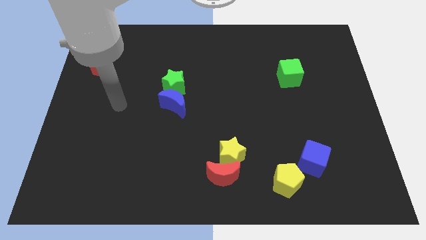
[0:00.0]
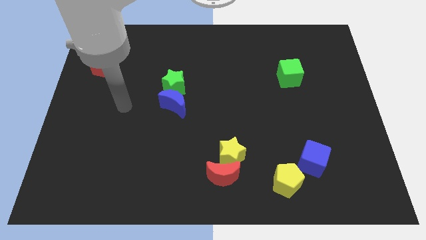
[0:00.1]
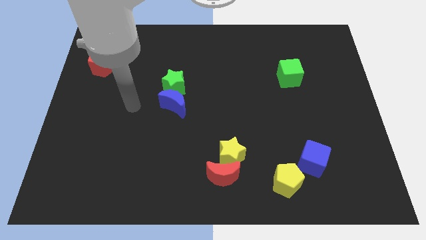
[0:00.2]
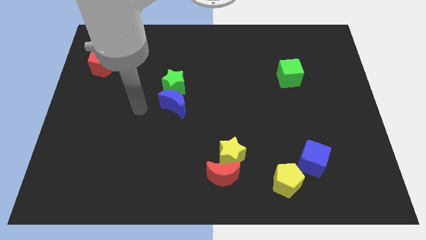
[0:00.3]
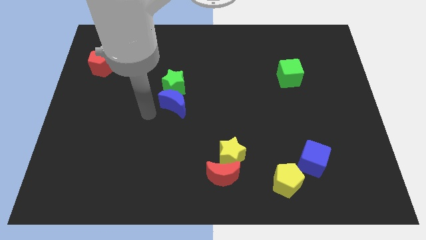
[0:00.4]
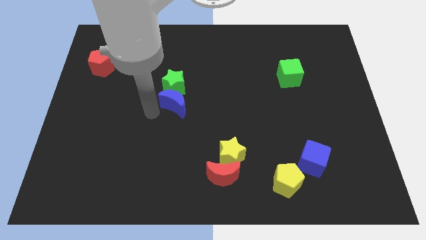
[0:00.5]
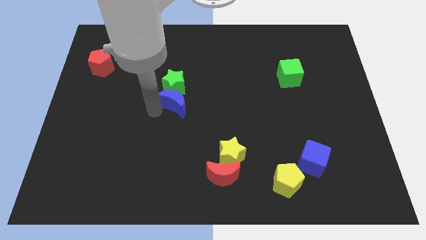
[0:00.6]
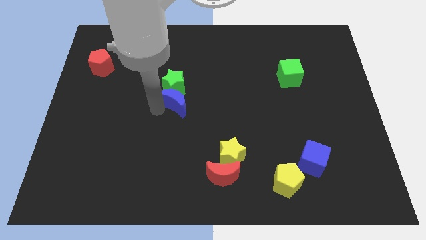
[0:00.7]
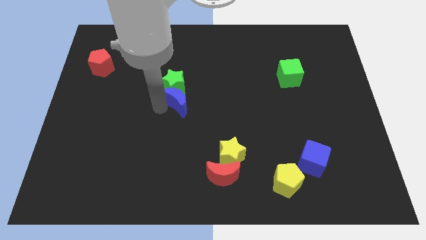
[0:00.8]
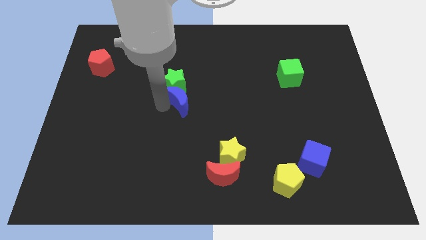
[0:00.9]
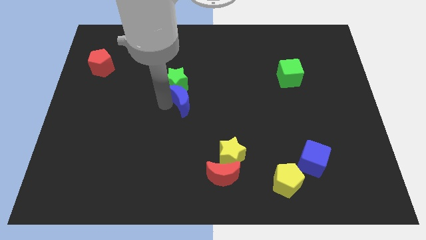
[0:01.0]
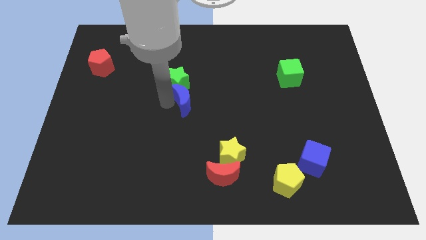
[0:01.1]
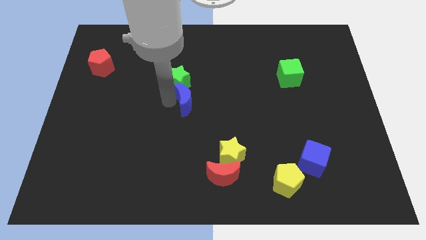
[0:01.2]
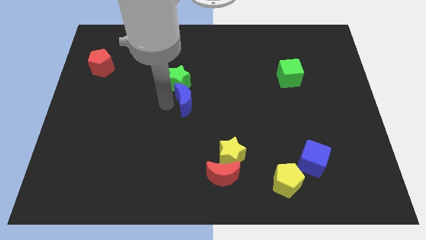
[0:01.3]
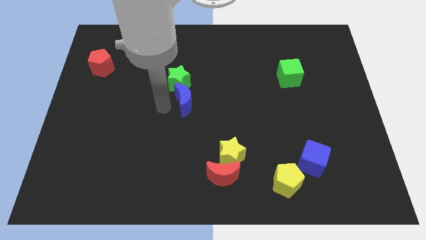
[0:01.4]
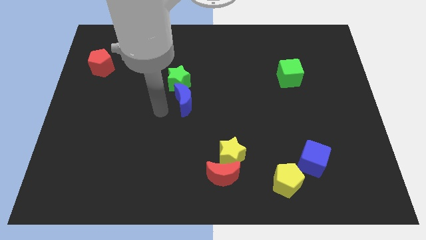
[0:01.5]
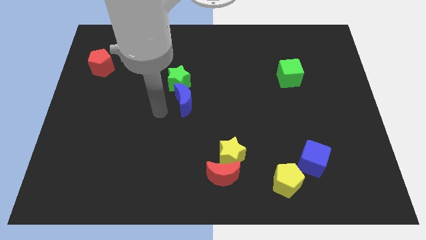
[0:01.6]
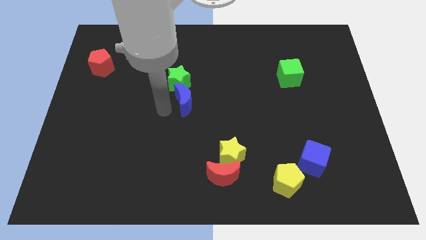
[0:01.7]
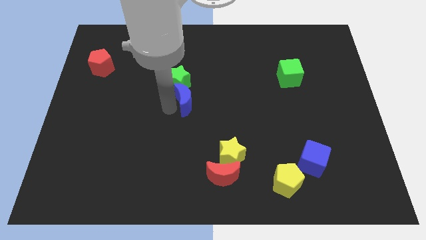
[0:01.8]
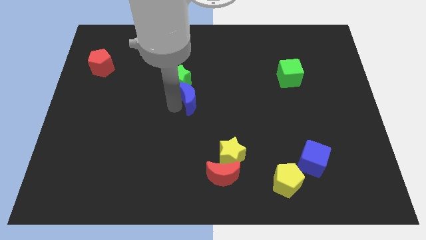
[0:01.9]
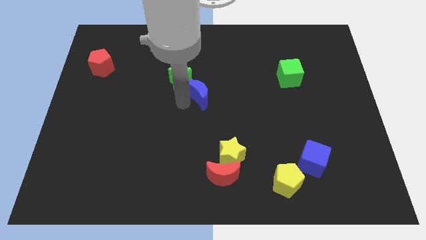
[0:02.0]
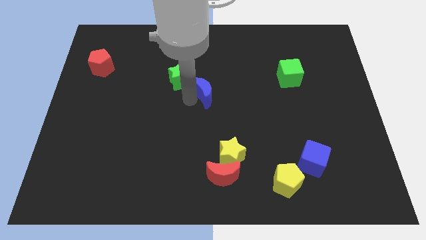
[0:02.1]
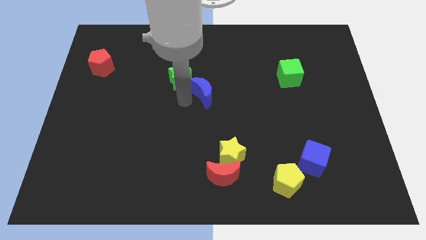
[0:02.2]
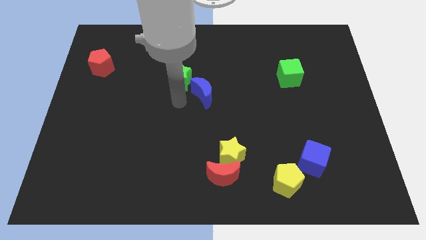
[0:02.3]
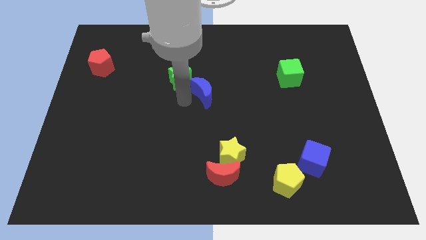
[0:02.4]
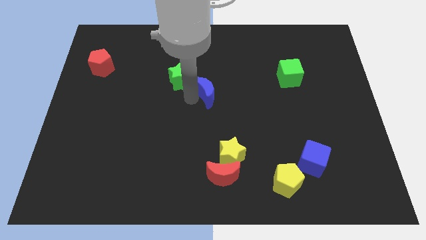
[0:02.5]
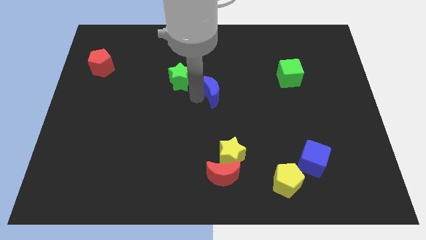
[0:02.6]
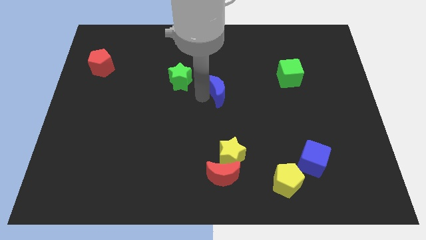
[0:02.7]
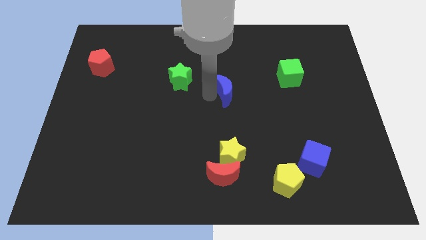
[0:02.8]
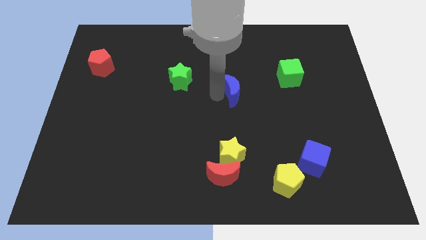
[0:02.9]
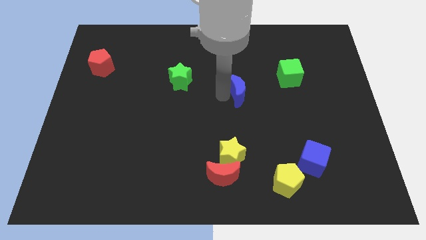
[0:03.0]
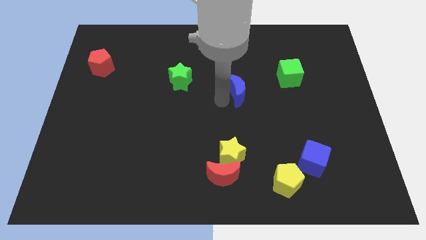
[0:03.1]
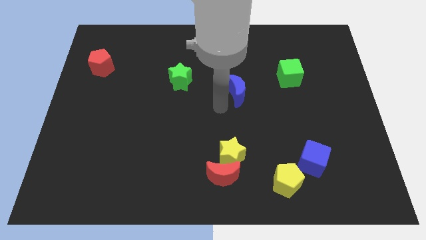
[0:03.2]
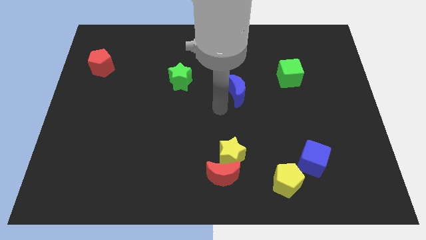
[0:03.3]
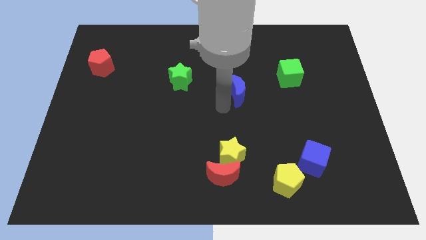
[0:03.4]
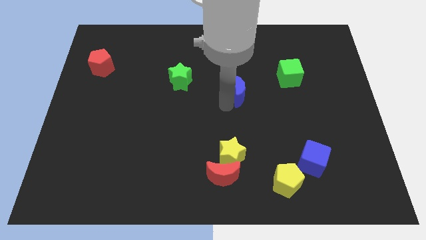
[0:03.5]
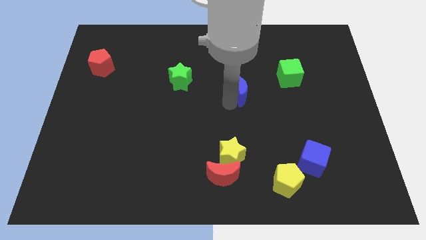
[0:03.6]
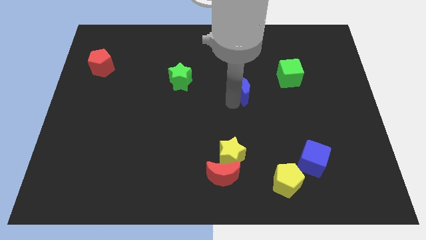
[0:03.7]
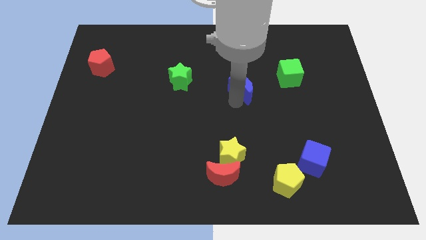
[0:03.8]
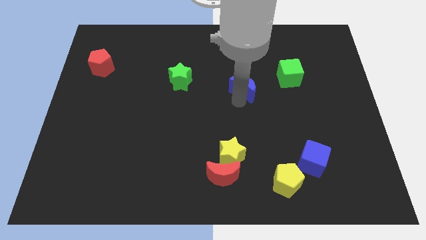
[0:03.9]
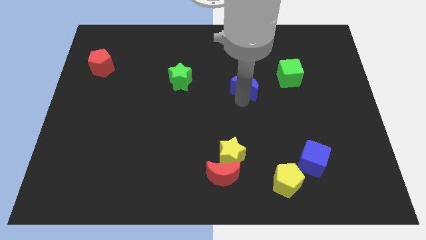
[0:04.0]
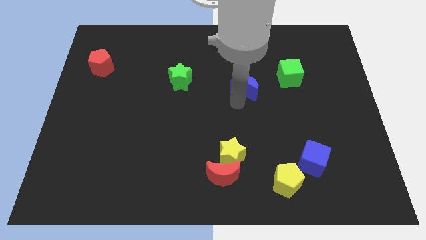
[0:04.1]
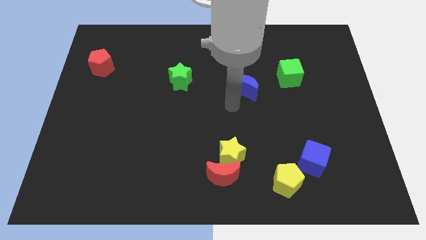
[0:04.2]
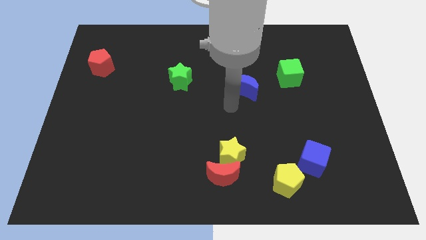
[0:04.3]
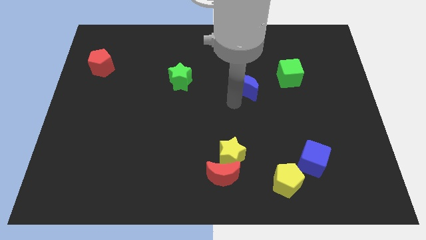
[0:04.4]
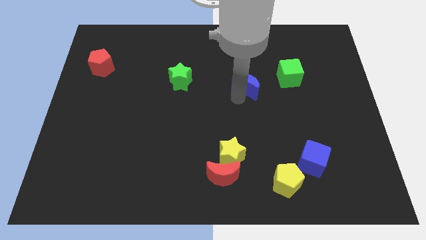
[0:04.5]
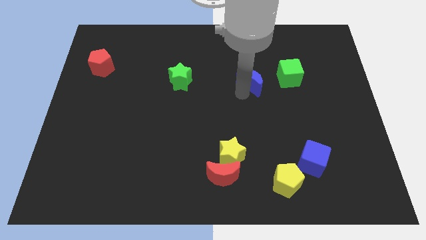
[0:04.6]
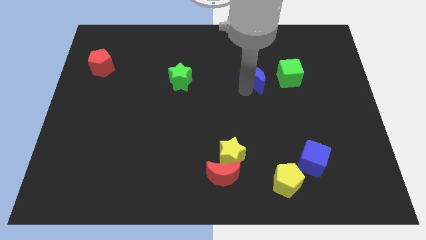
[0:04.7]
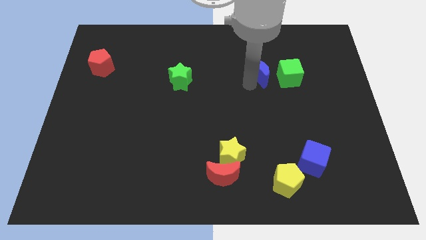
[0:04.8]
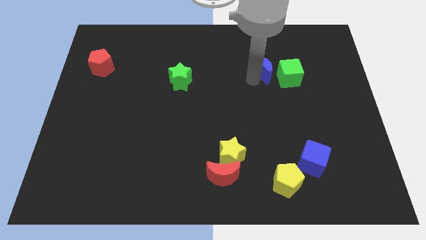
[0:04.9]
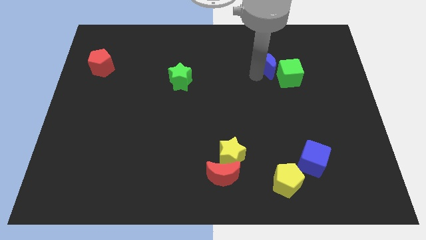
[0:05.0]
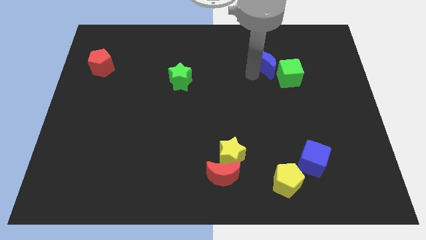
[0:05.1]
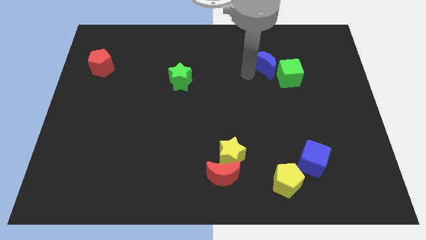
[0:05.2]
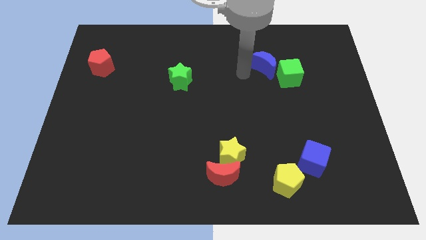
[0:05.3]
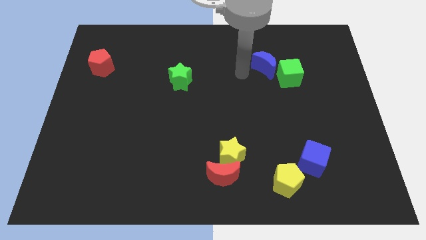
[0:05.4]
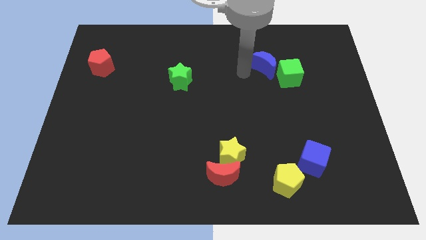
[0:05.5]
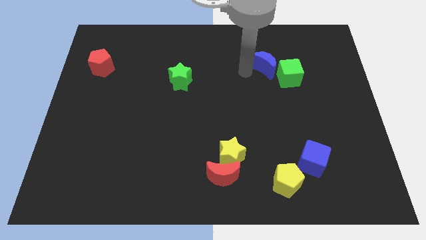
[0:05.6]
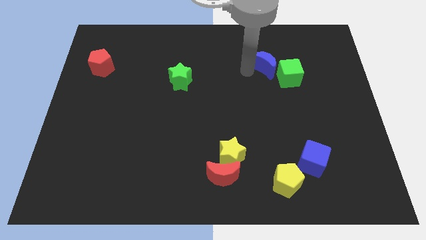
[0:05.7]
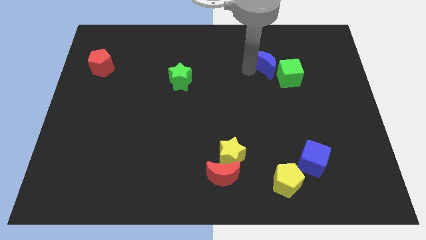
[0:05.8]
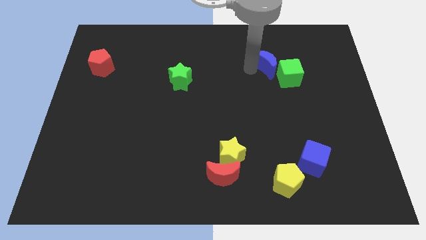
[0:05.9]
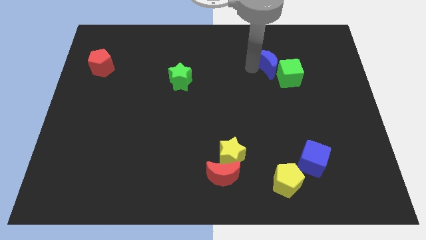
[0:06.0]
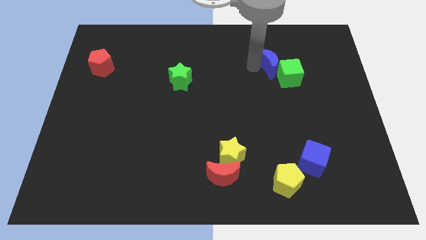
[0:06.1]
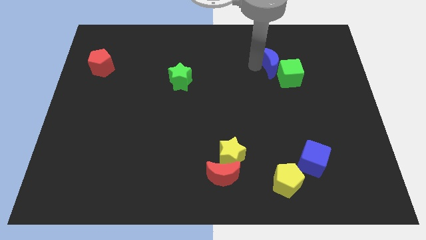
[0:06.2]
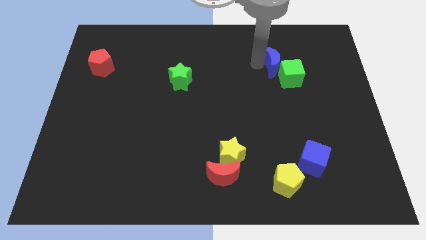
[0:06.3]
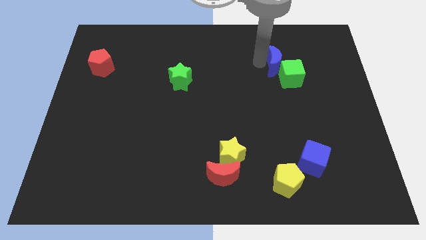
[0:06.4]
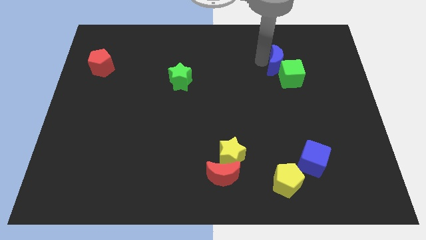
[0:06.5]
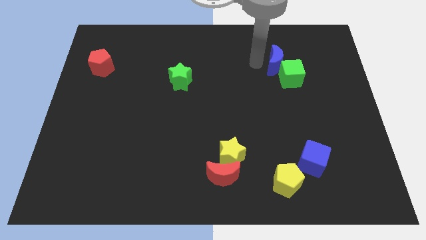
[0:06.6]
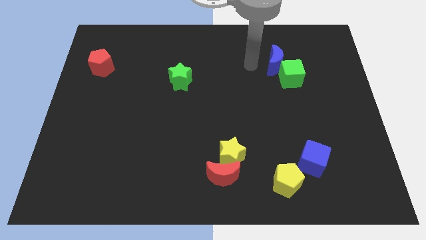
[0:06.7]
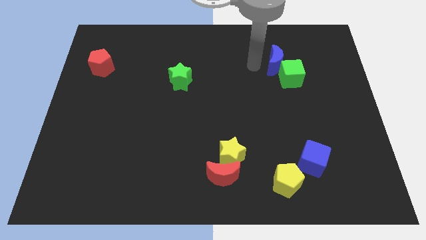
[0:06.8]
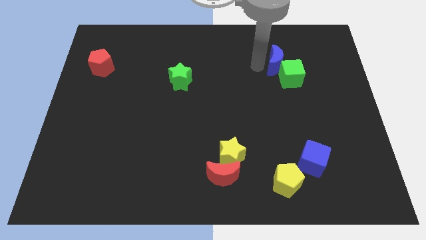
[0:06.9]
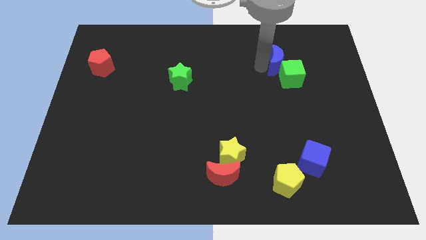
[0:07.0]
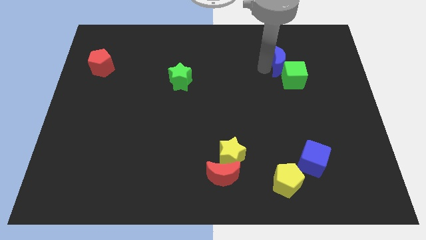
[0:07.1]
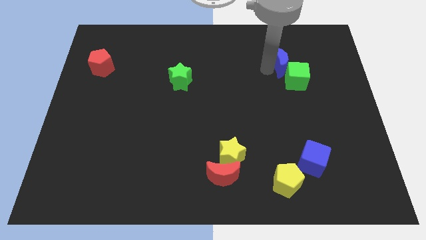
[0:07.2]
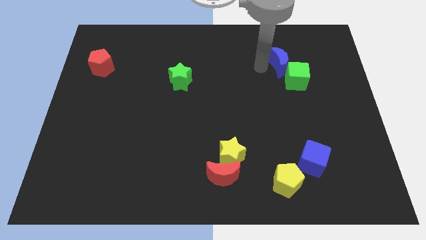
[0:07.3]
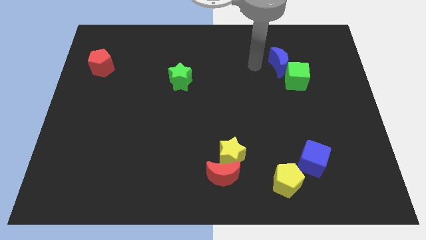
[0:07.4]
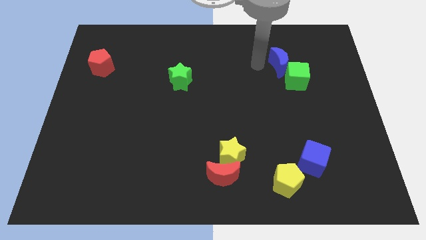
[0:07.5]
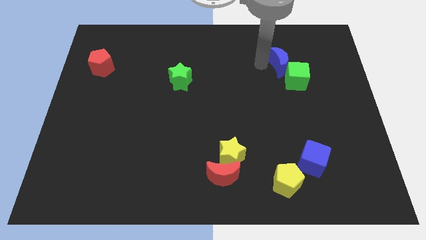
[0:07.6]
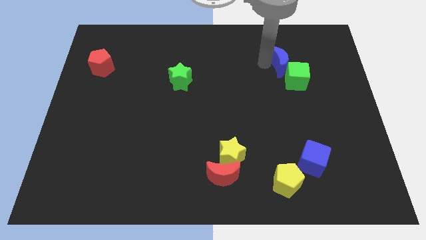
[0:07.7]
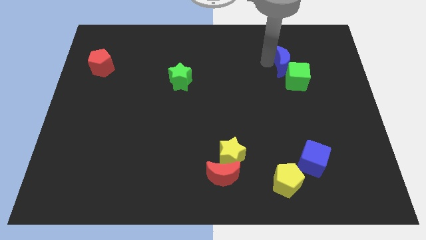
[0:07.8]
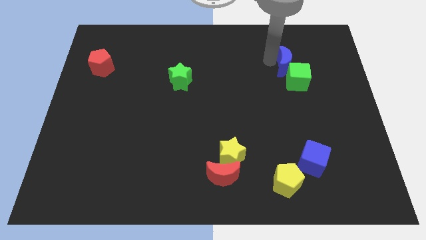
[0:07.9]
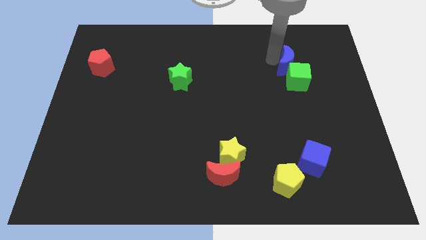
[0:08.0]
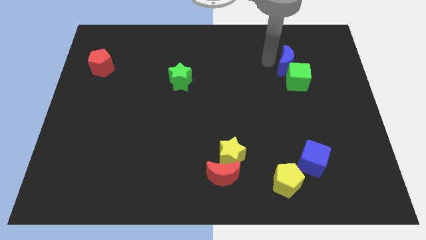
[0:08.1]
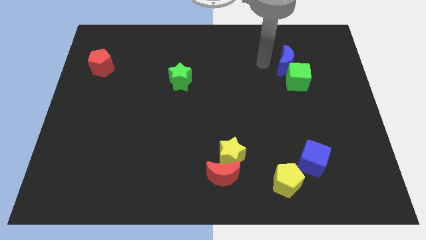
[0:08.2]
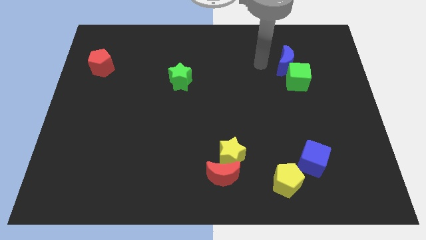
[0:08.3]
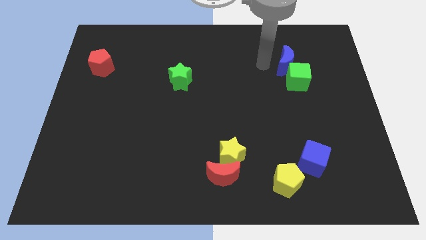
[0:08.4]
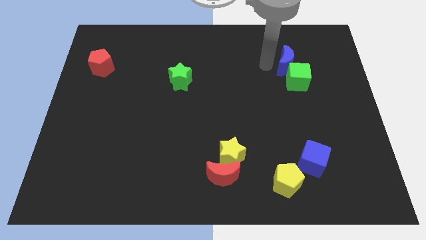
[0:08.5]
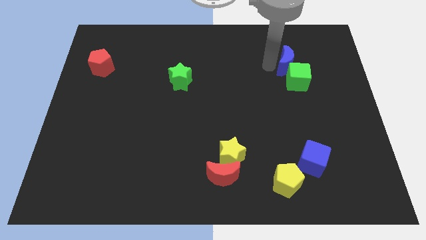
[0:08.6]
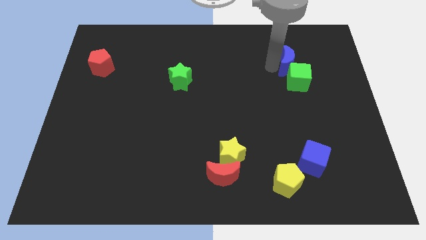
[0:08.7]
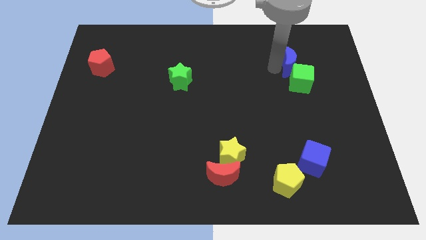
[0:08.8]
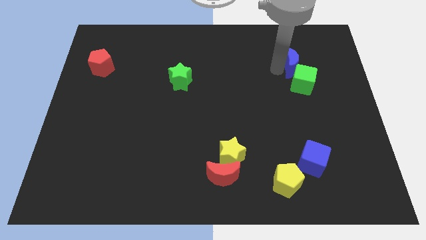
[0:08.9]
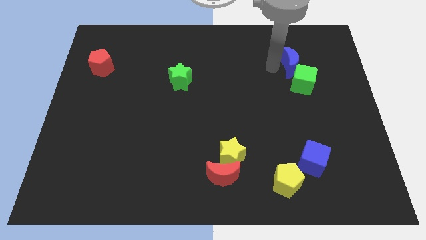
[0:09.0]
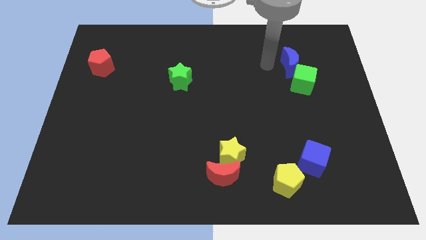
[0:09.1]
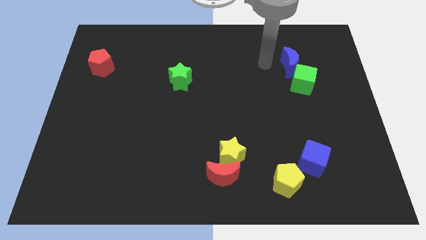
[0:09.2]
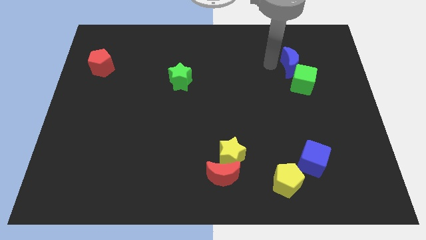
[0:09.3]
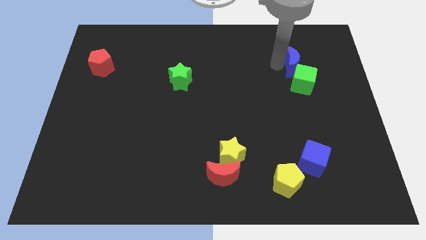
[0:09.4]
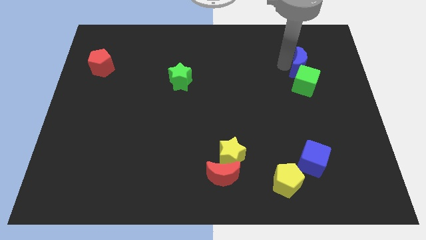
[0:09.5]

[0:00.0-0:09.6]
slide the blue moon diagonally up and to the right of the green cube
